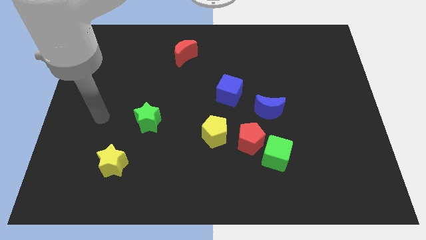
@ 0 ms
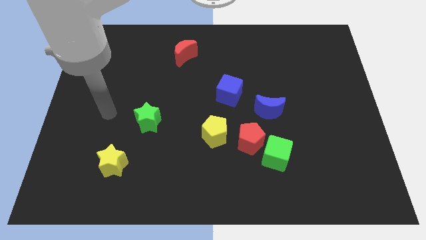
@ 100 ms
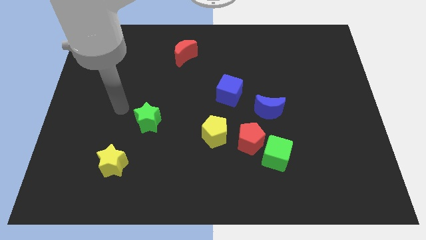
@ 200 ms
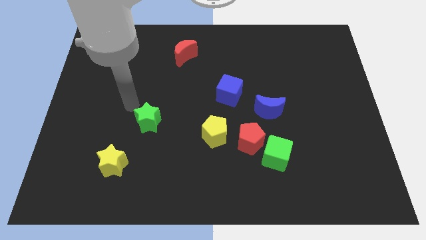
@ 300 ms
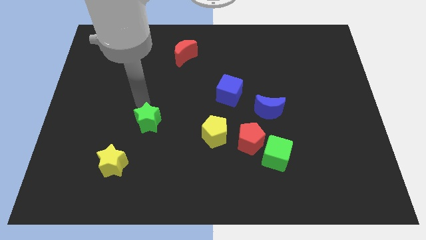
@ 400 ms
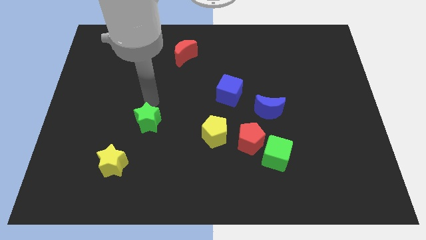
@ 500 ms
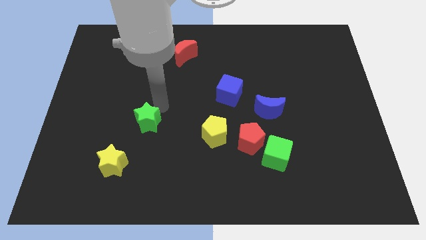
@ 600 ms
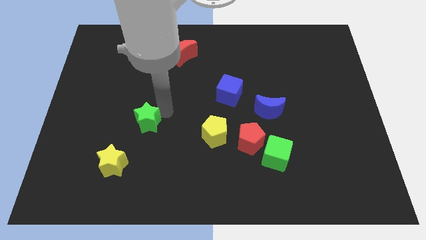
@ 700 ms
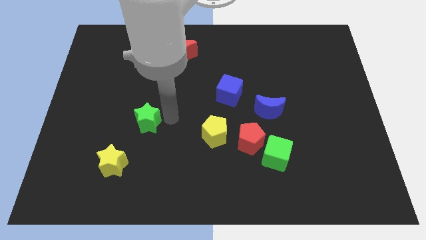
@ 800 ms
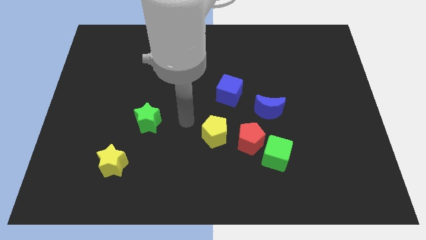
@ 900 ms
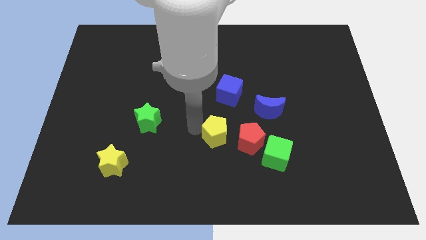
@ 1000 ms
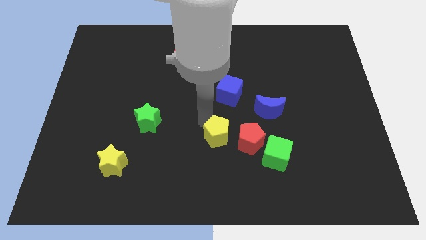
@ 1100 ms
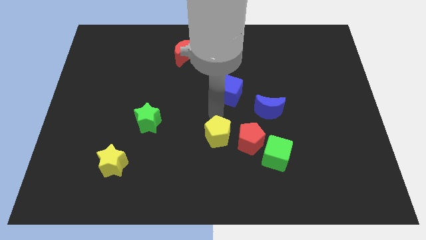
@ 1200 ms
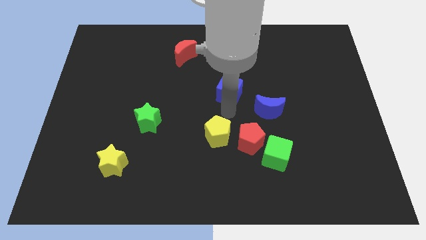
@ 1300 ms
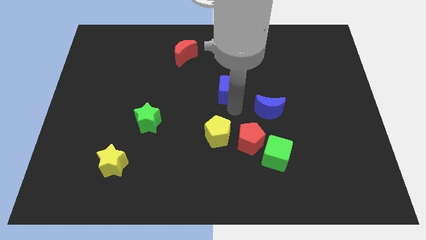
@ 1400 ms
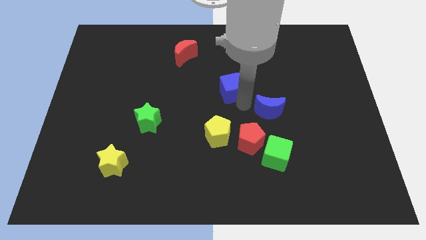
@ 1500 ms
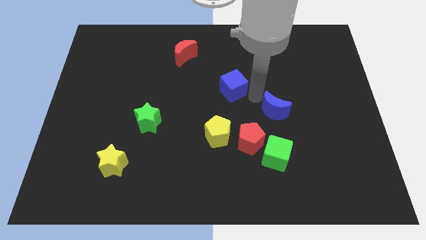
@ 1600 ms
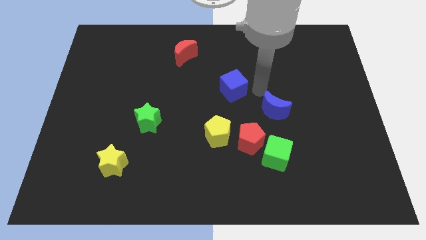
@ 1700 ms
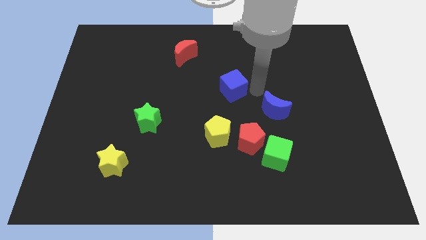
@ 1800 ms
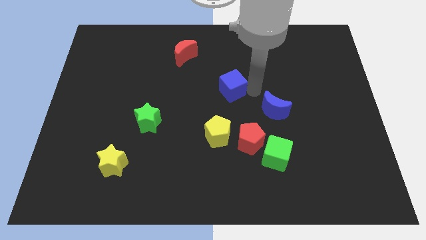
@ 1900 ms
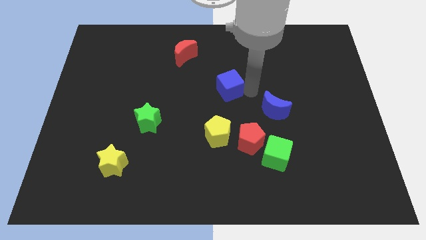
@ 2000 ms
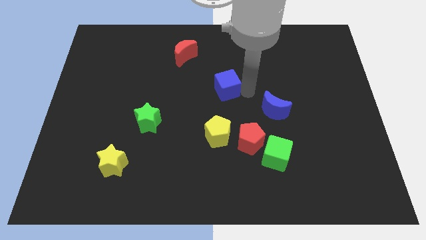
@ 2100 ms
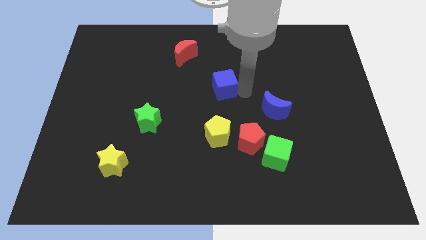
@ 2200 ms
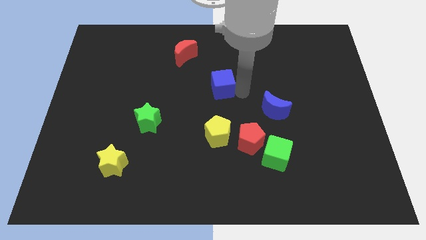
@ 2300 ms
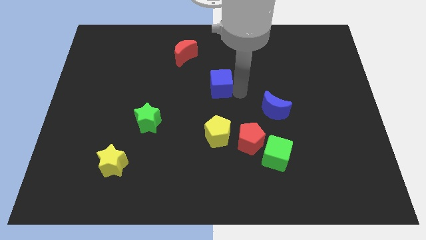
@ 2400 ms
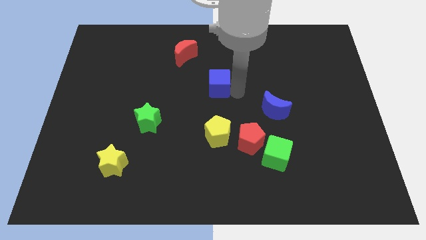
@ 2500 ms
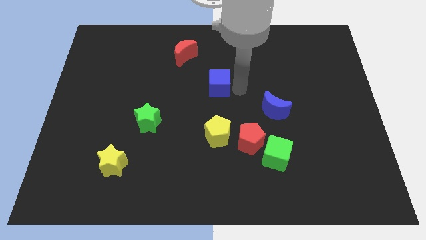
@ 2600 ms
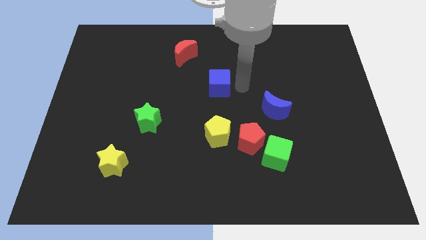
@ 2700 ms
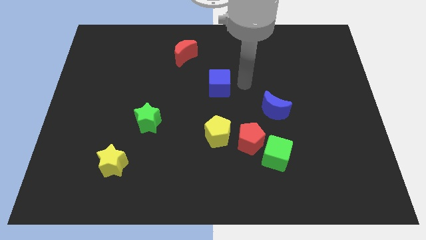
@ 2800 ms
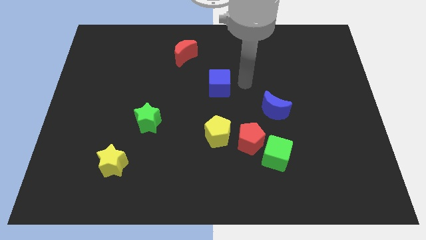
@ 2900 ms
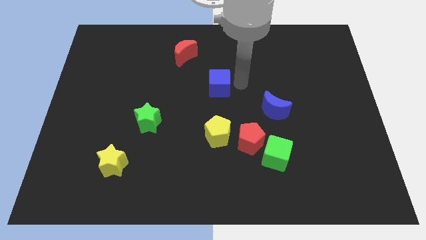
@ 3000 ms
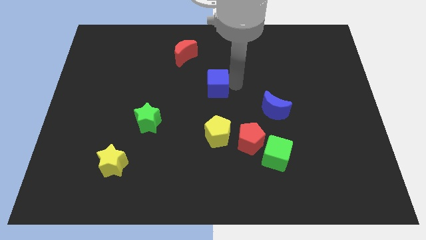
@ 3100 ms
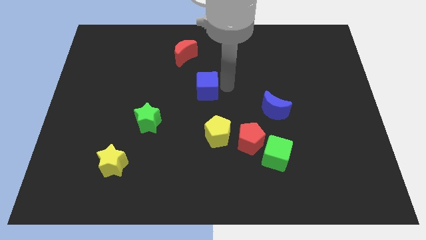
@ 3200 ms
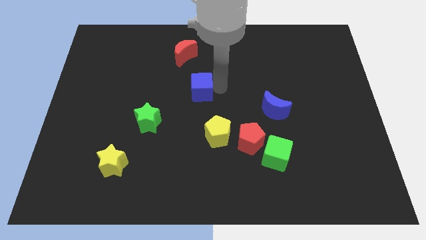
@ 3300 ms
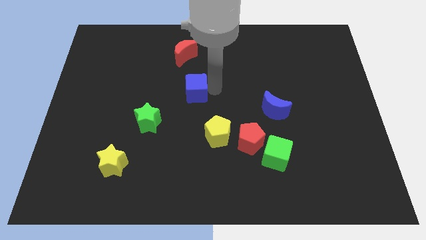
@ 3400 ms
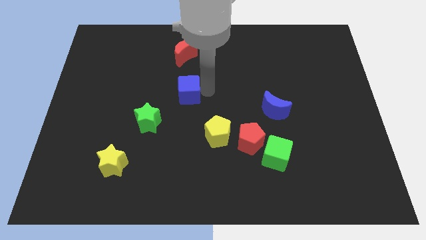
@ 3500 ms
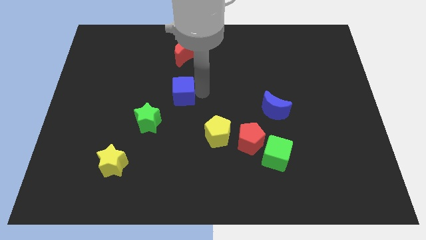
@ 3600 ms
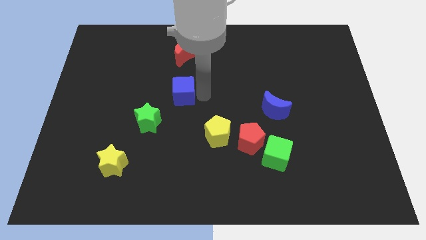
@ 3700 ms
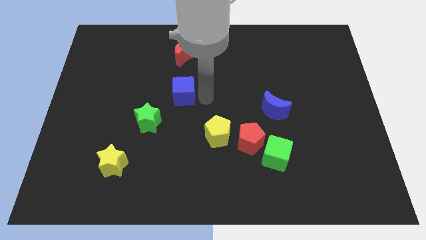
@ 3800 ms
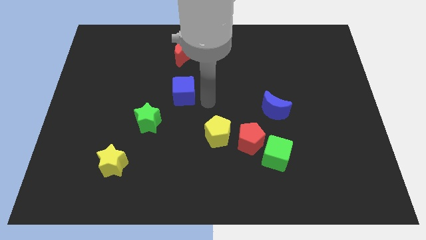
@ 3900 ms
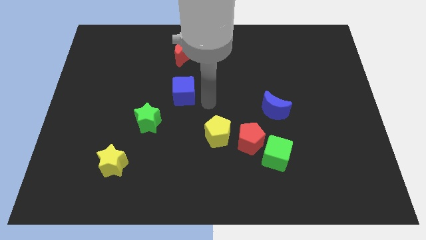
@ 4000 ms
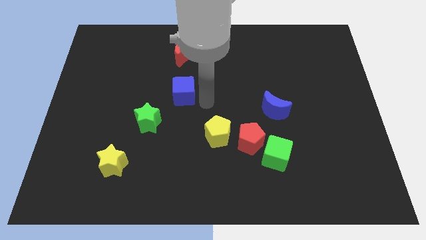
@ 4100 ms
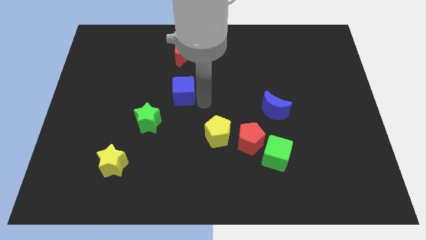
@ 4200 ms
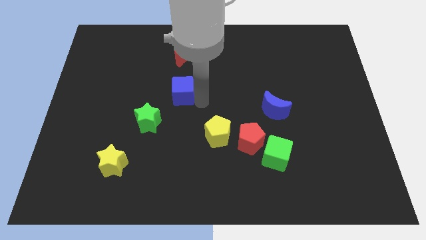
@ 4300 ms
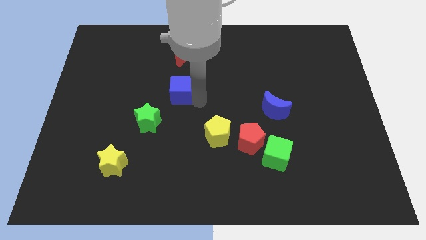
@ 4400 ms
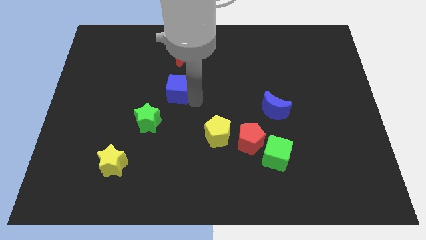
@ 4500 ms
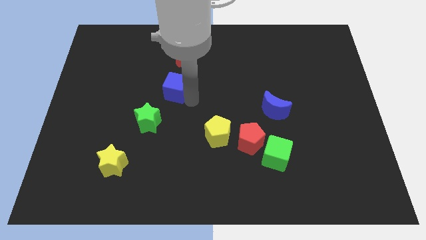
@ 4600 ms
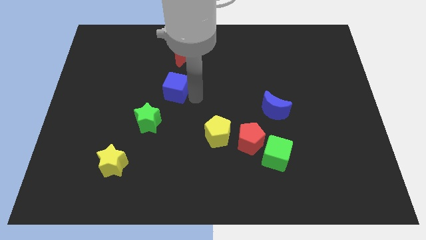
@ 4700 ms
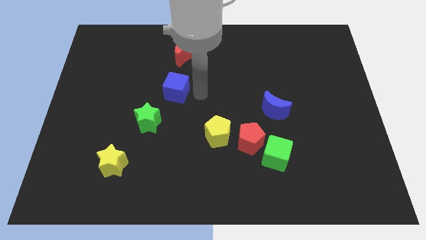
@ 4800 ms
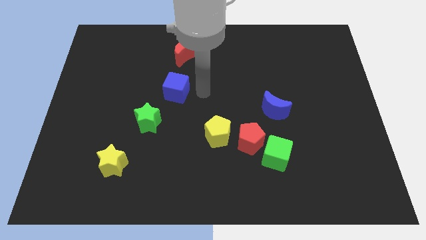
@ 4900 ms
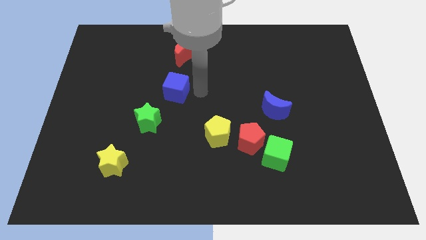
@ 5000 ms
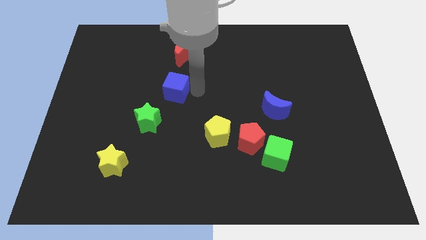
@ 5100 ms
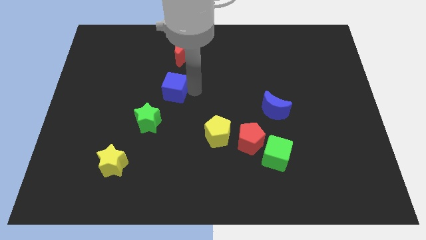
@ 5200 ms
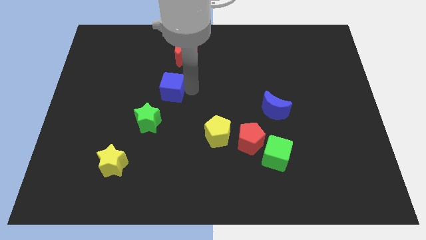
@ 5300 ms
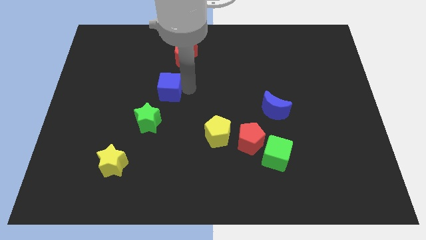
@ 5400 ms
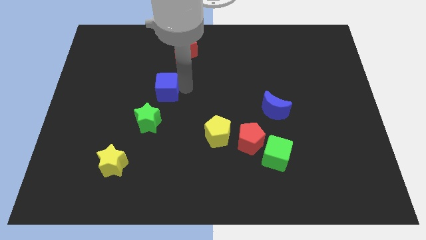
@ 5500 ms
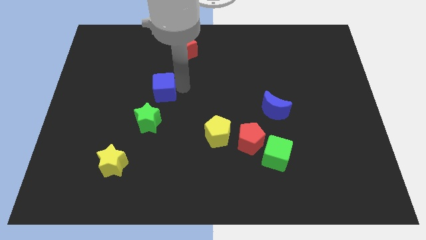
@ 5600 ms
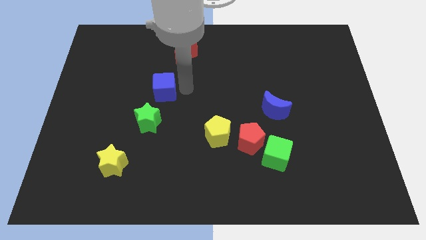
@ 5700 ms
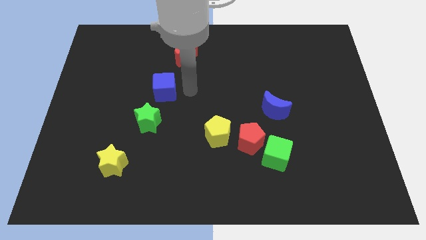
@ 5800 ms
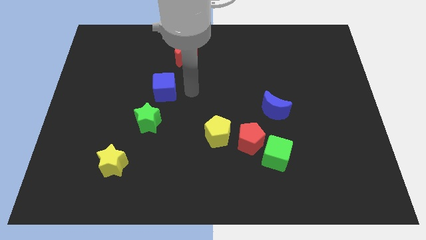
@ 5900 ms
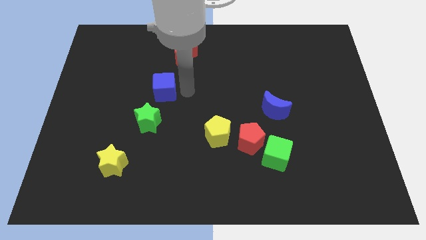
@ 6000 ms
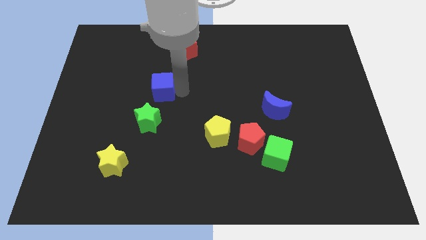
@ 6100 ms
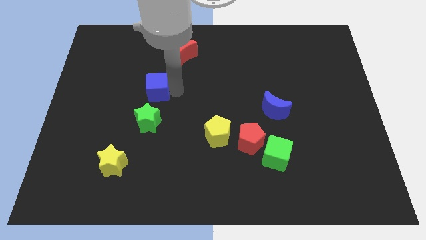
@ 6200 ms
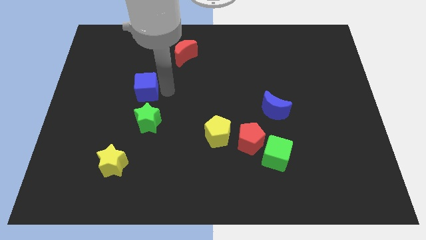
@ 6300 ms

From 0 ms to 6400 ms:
move the blue cube to the left

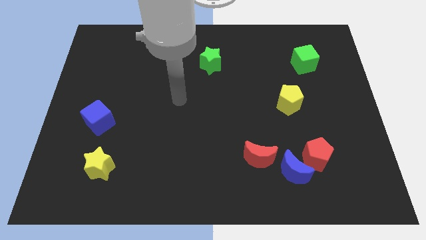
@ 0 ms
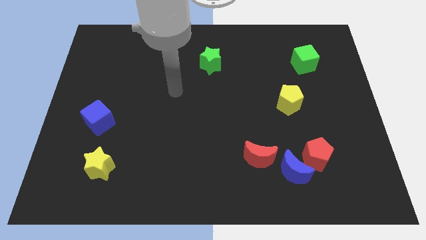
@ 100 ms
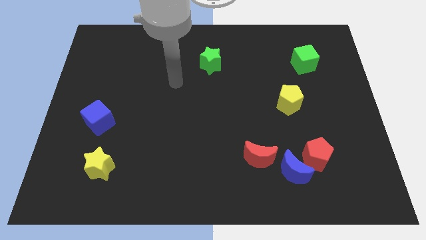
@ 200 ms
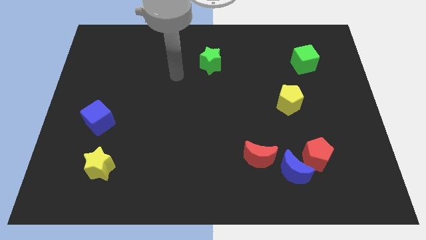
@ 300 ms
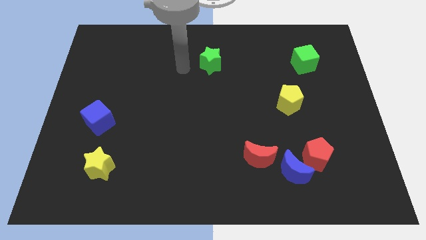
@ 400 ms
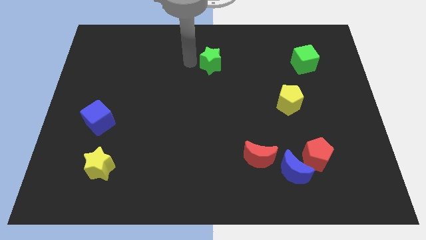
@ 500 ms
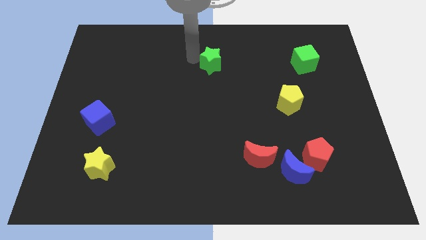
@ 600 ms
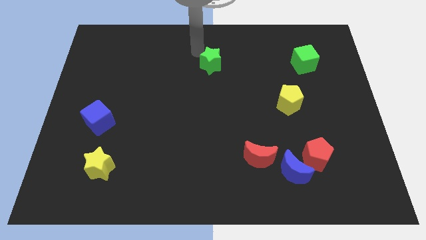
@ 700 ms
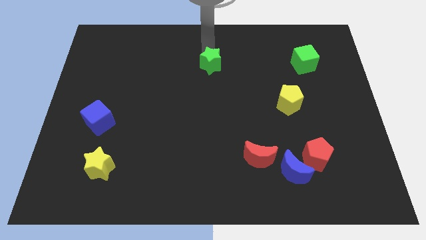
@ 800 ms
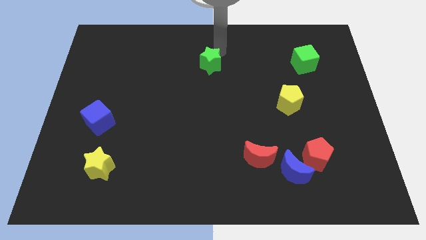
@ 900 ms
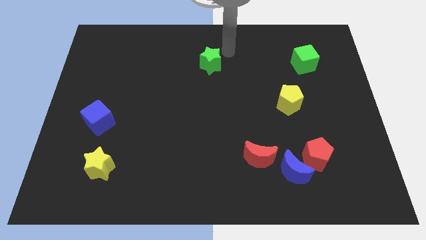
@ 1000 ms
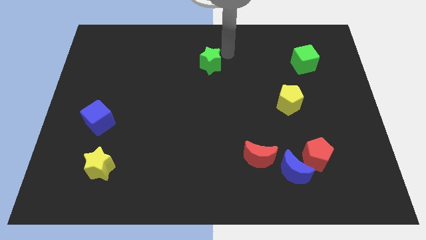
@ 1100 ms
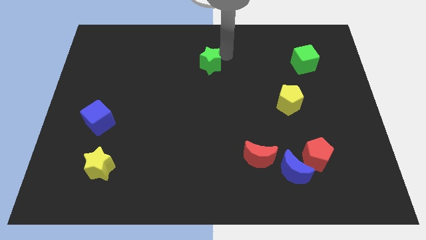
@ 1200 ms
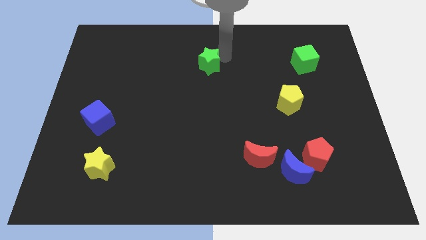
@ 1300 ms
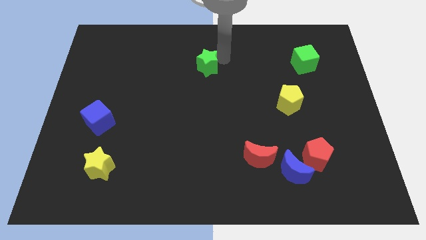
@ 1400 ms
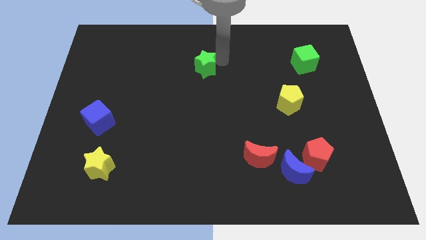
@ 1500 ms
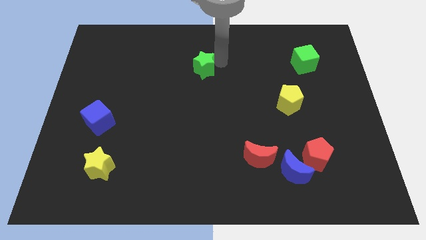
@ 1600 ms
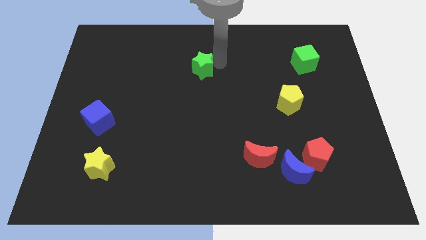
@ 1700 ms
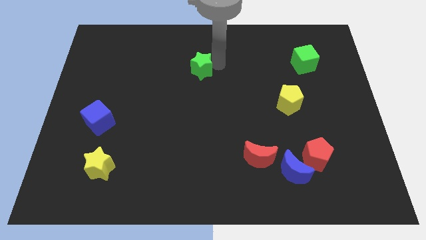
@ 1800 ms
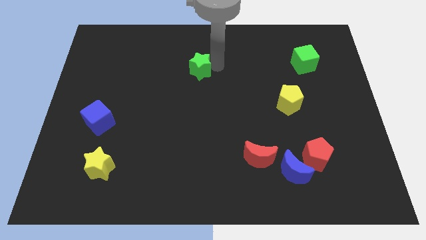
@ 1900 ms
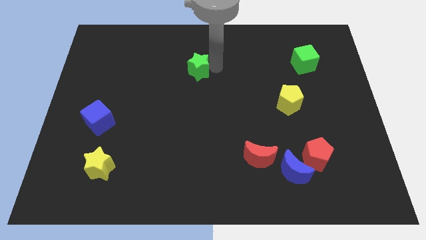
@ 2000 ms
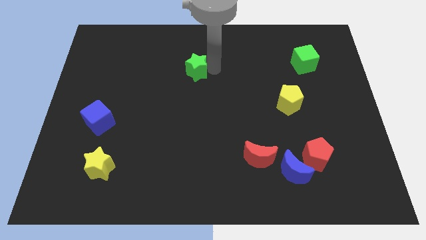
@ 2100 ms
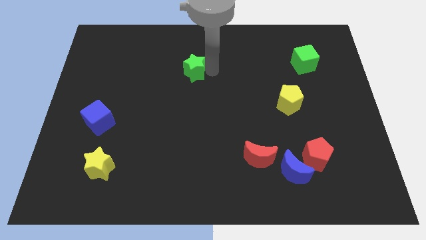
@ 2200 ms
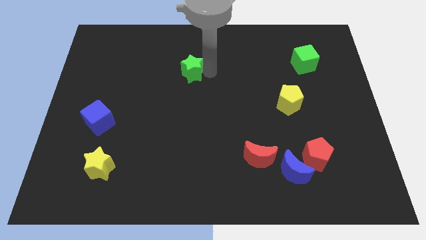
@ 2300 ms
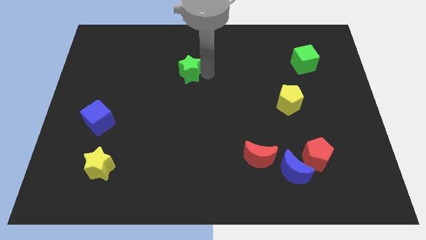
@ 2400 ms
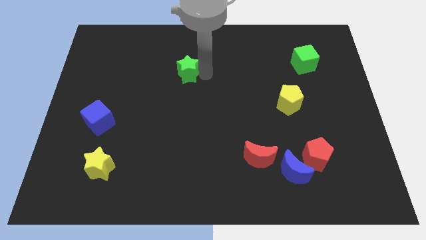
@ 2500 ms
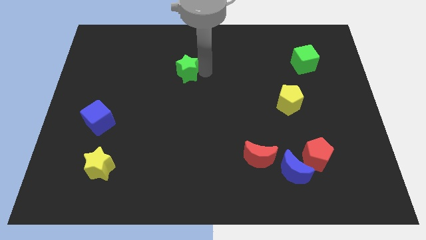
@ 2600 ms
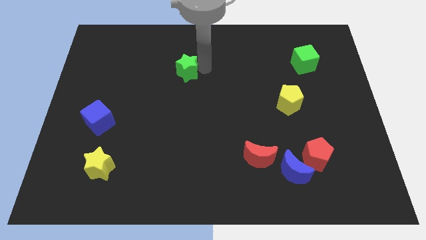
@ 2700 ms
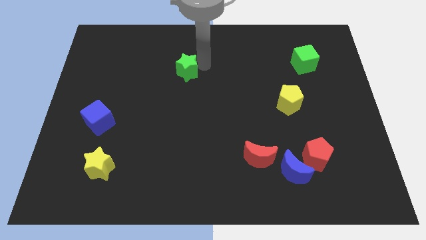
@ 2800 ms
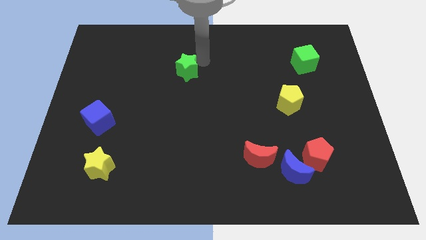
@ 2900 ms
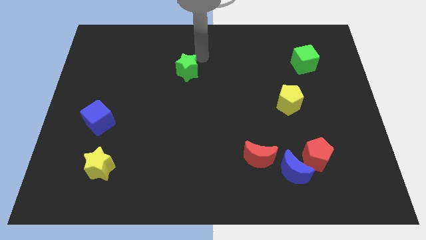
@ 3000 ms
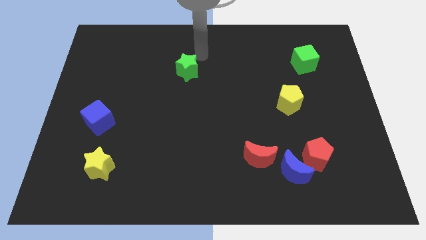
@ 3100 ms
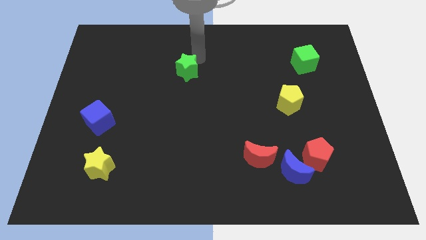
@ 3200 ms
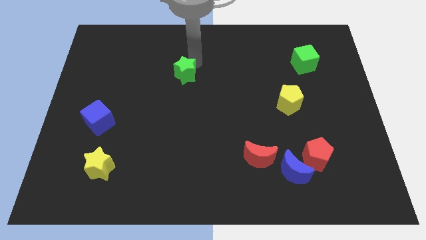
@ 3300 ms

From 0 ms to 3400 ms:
move the green star downwards and to the left a little bit
